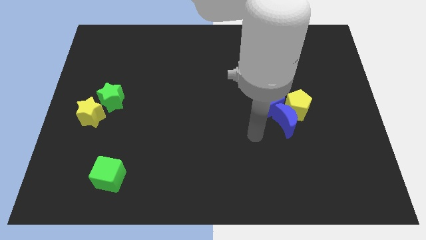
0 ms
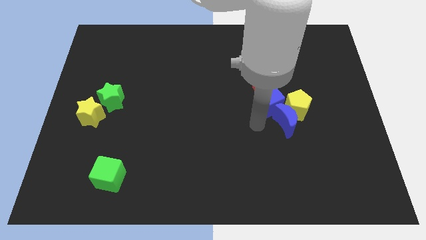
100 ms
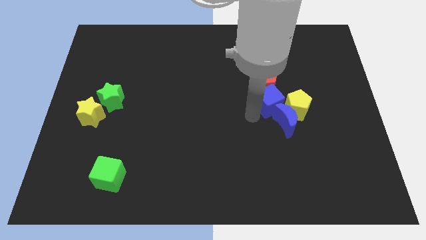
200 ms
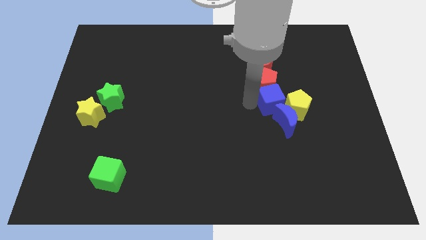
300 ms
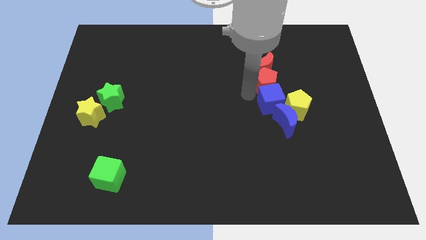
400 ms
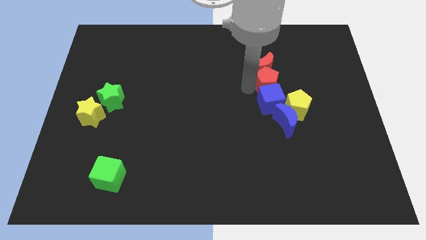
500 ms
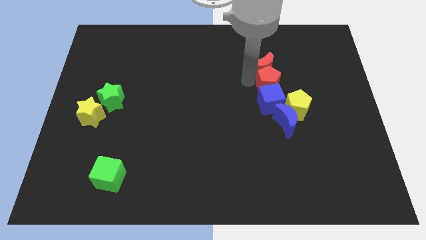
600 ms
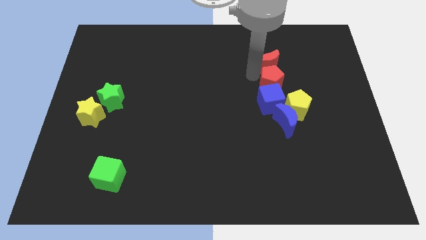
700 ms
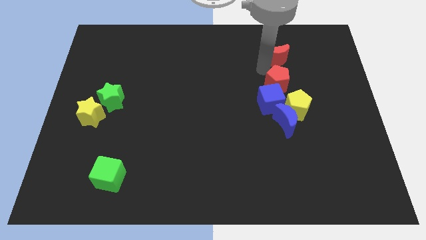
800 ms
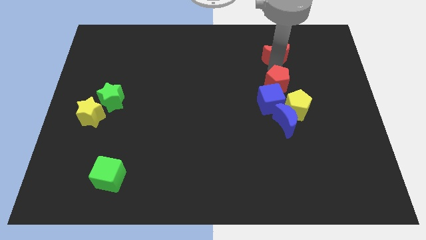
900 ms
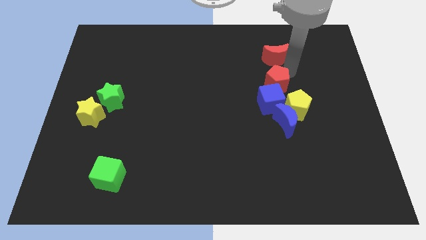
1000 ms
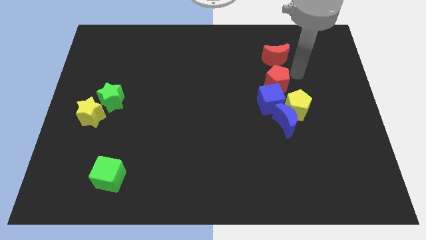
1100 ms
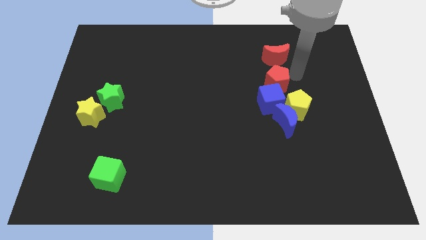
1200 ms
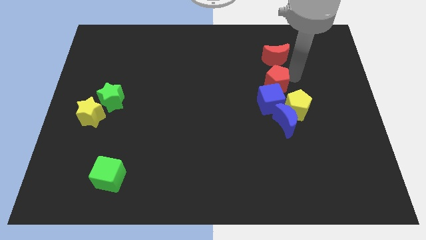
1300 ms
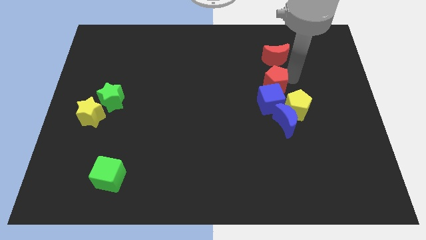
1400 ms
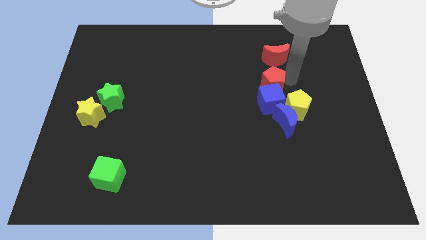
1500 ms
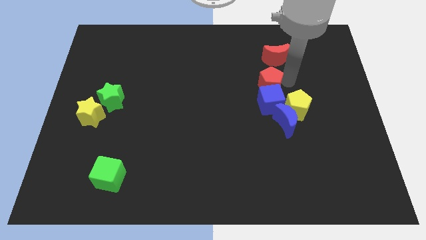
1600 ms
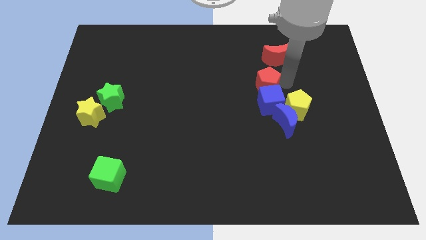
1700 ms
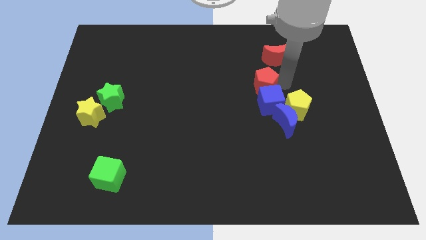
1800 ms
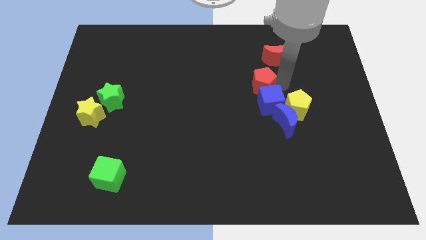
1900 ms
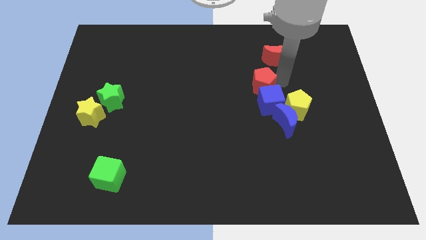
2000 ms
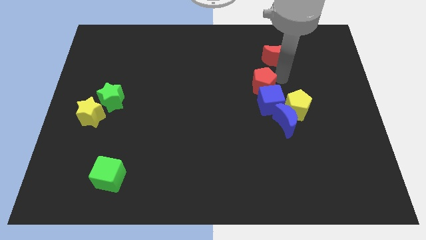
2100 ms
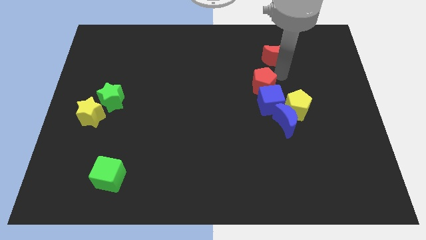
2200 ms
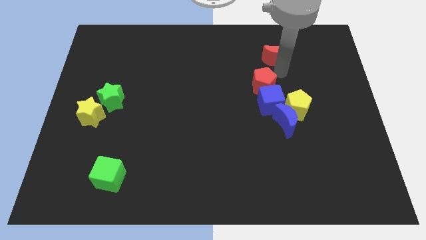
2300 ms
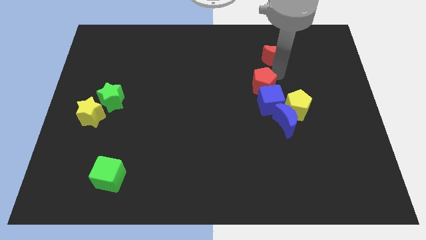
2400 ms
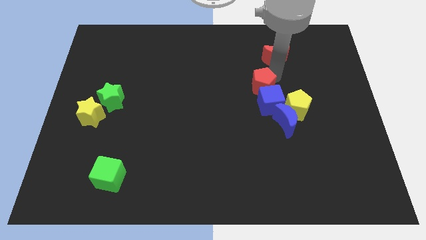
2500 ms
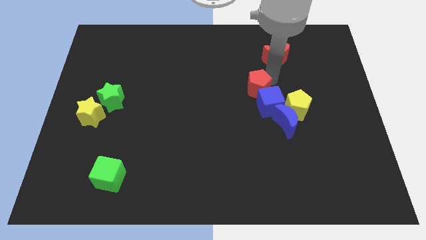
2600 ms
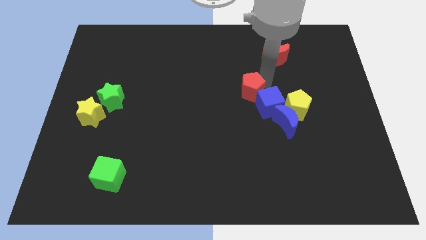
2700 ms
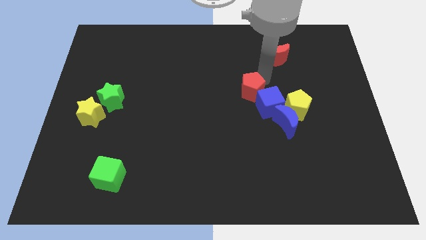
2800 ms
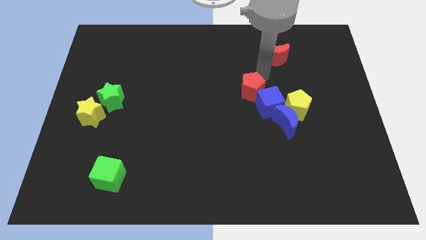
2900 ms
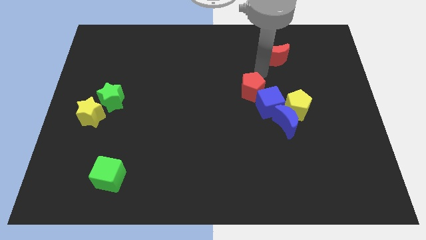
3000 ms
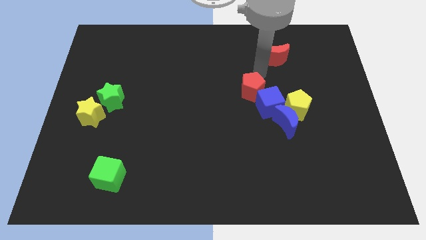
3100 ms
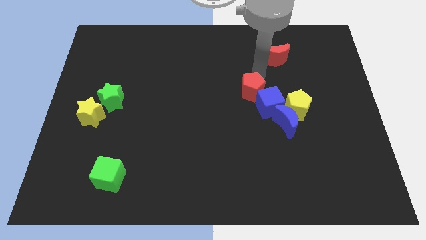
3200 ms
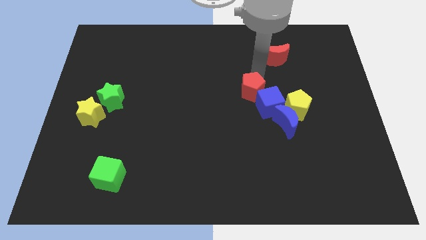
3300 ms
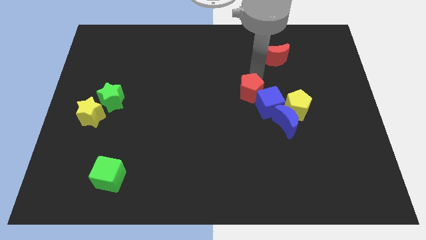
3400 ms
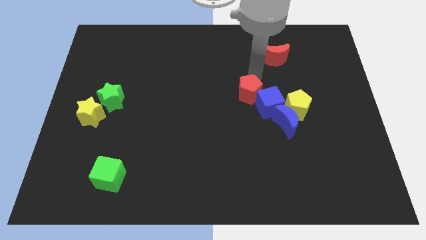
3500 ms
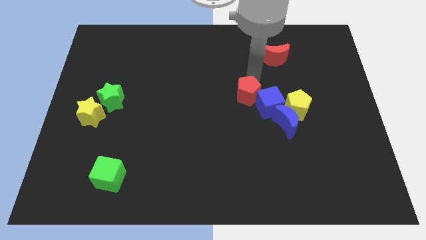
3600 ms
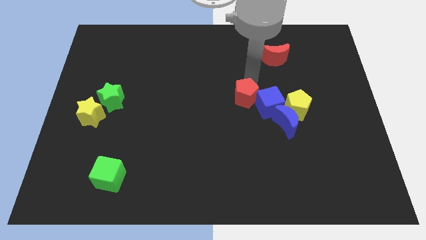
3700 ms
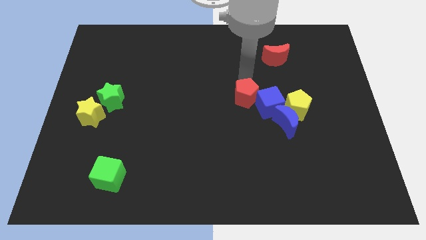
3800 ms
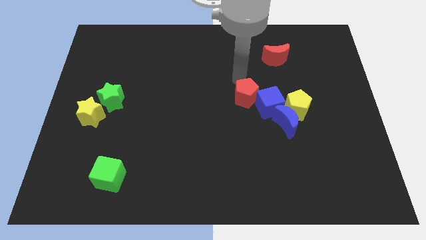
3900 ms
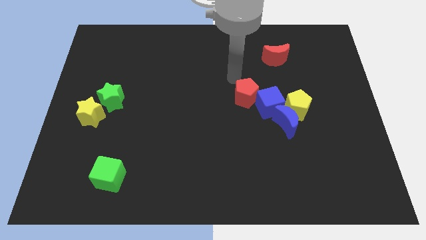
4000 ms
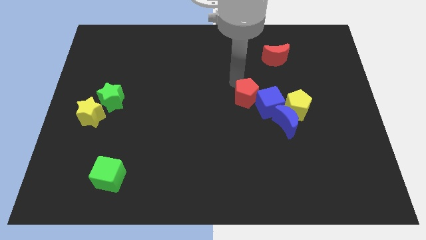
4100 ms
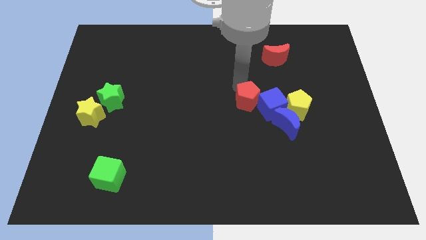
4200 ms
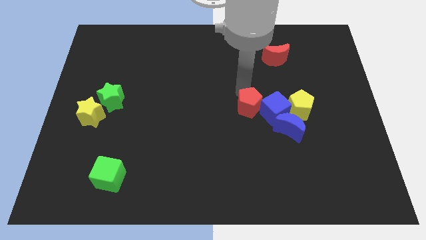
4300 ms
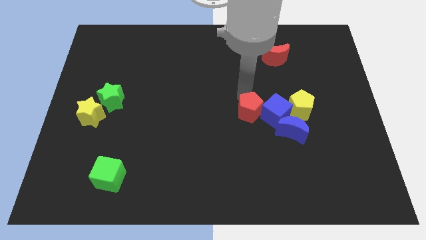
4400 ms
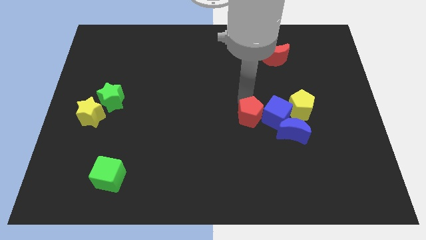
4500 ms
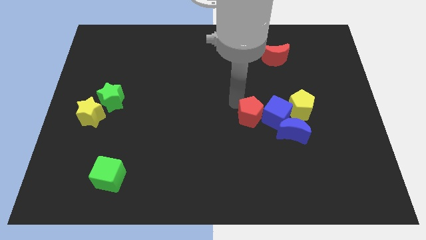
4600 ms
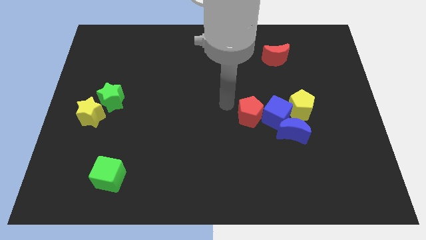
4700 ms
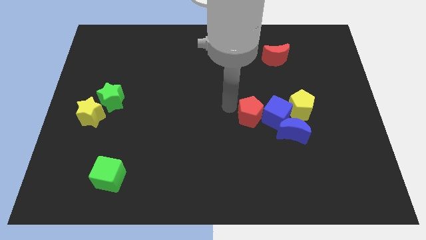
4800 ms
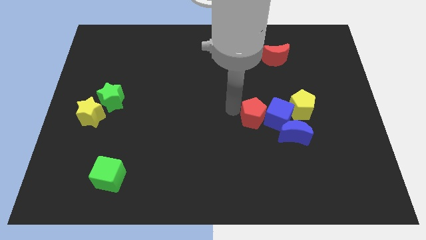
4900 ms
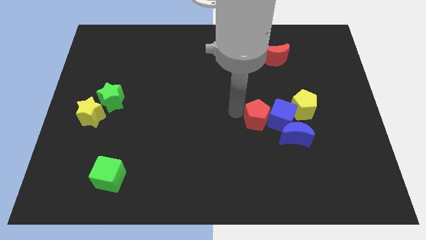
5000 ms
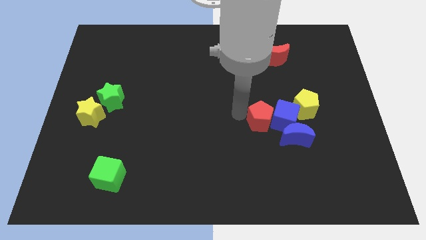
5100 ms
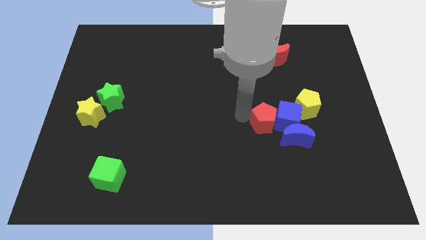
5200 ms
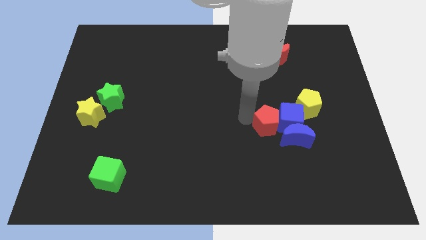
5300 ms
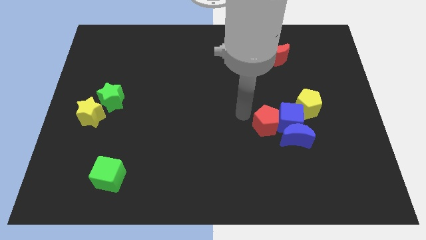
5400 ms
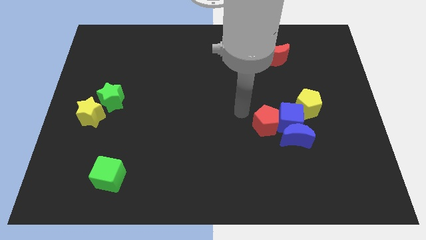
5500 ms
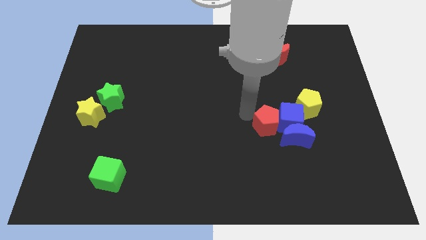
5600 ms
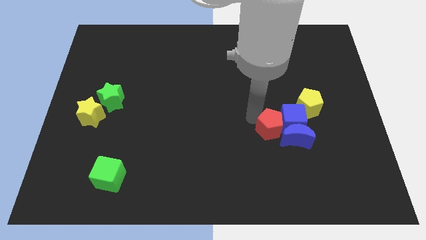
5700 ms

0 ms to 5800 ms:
push the red pentagon next to the blue moon

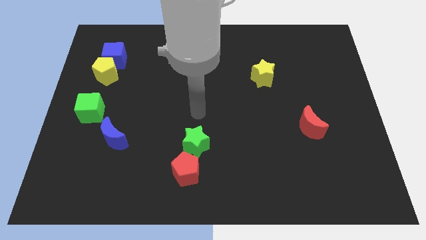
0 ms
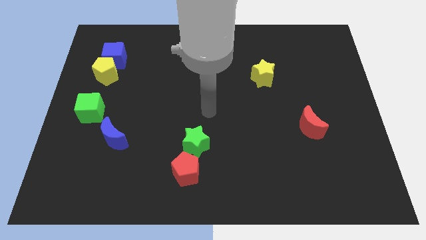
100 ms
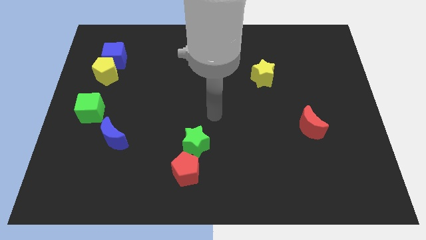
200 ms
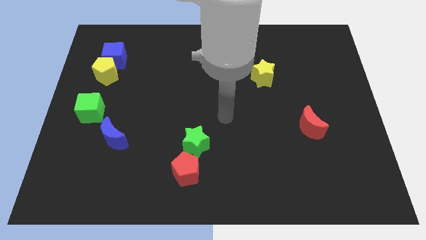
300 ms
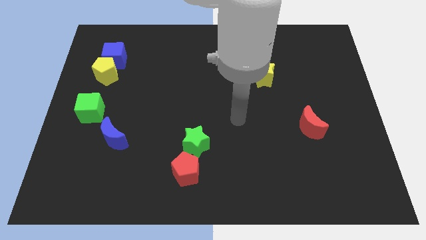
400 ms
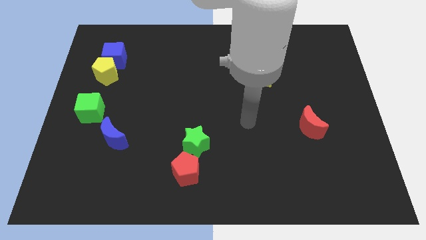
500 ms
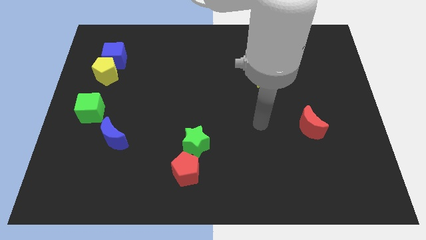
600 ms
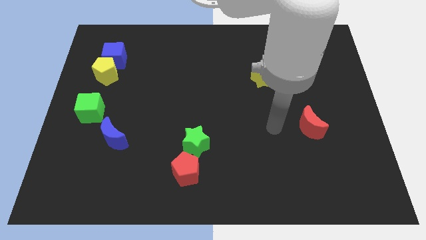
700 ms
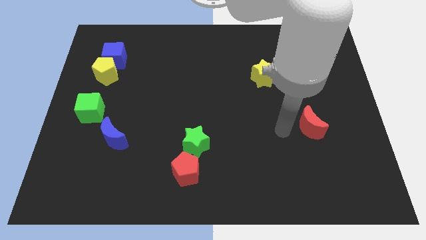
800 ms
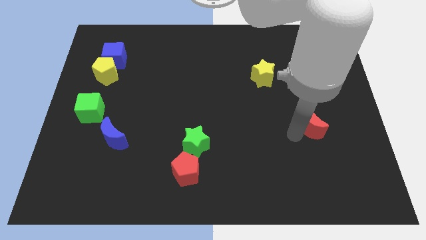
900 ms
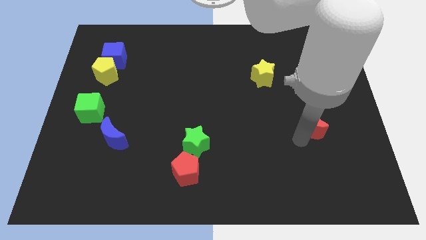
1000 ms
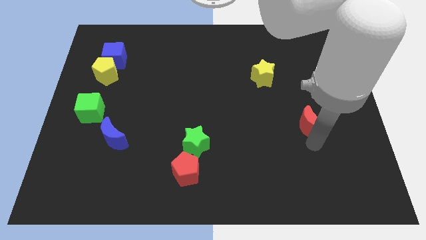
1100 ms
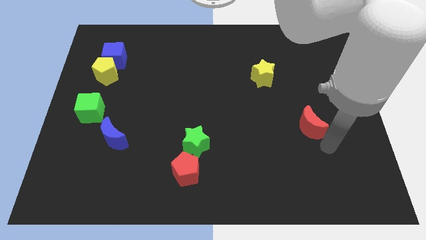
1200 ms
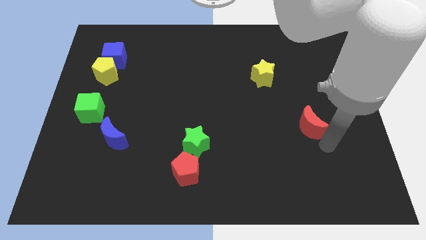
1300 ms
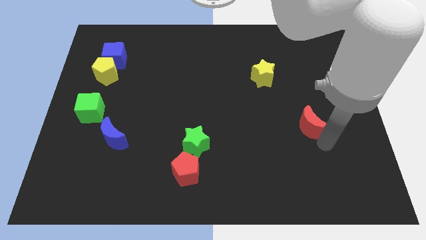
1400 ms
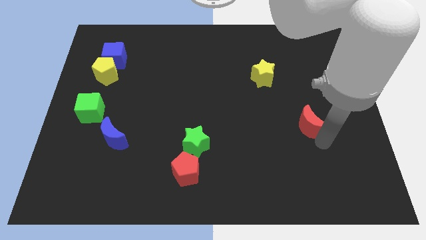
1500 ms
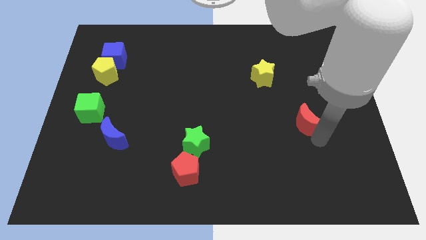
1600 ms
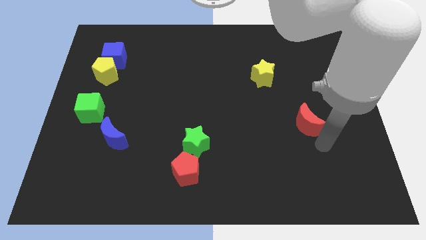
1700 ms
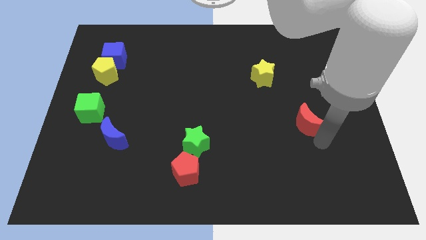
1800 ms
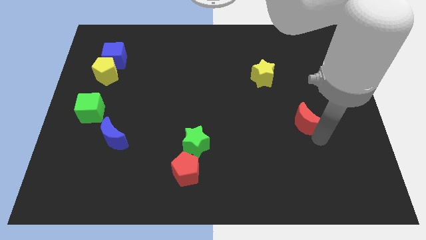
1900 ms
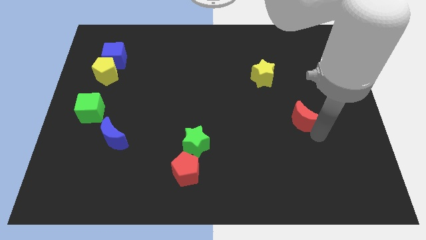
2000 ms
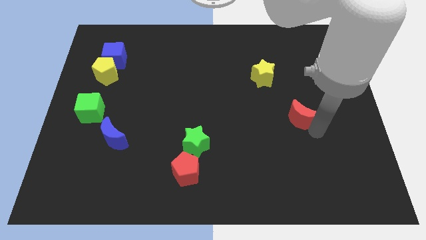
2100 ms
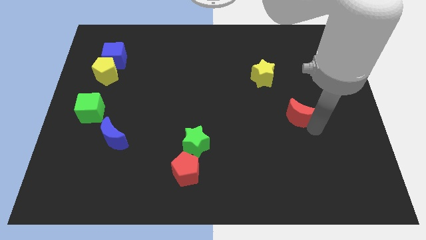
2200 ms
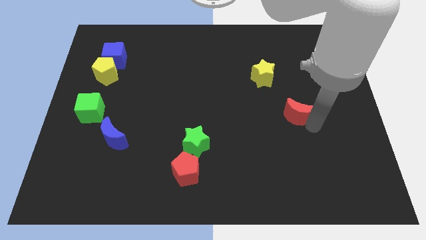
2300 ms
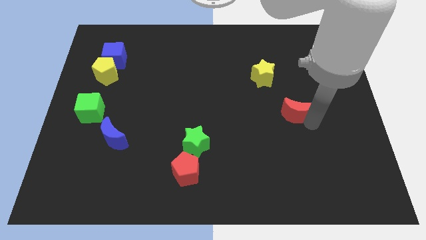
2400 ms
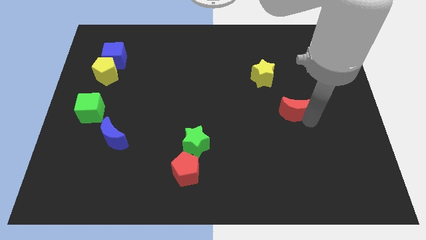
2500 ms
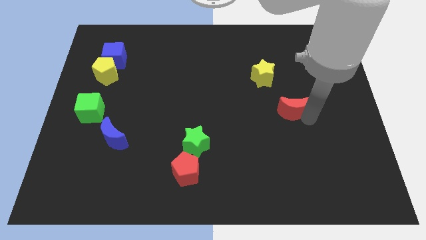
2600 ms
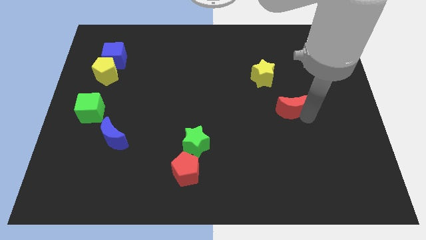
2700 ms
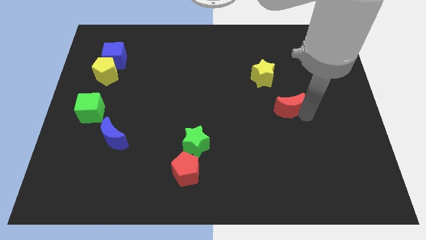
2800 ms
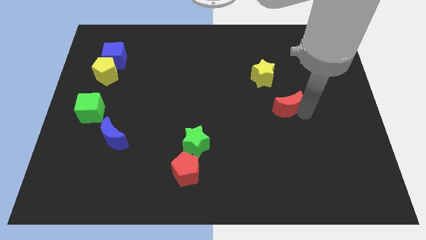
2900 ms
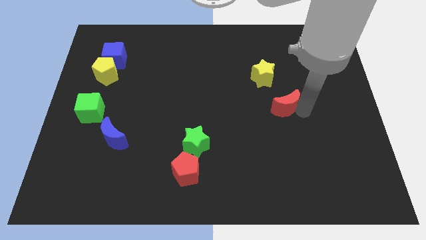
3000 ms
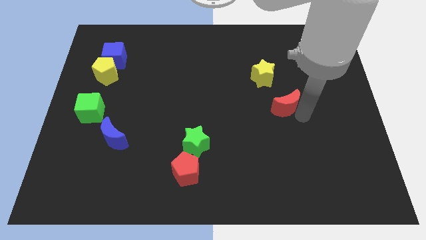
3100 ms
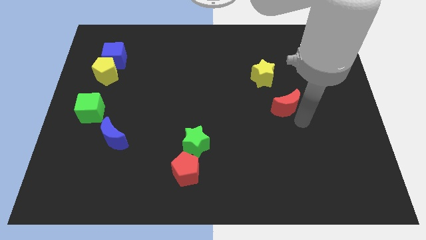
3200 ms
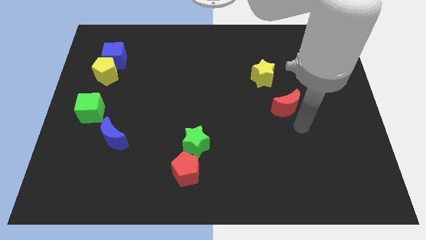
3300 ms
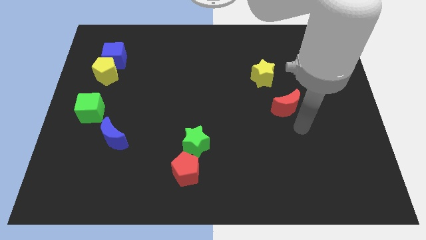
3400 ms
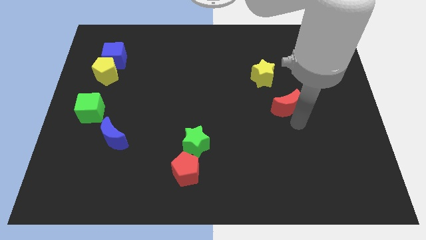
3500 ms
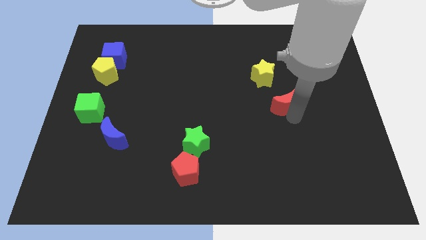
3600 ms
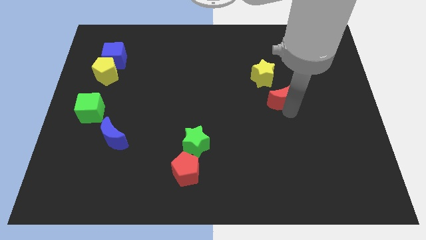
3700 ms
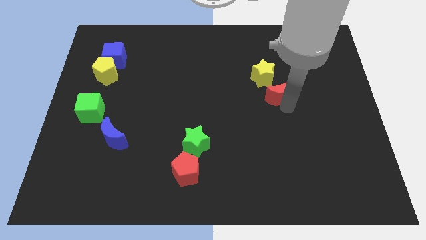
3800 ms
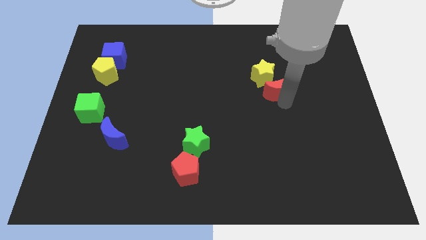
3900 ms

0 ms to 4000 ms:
push the red moon next to the yellow star
